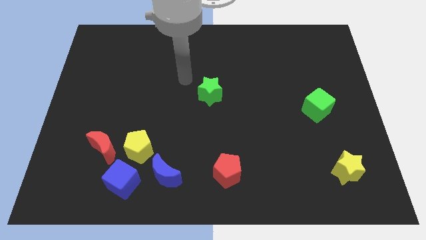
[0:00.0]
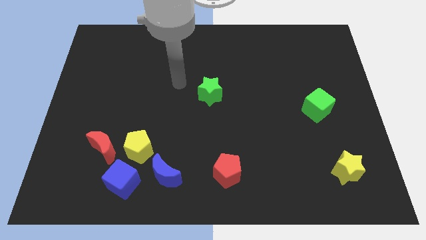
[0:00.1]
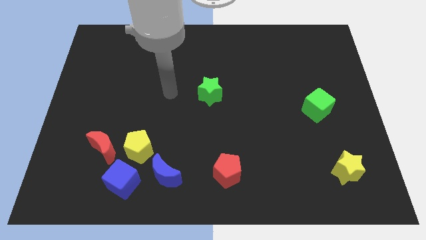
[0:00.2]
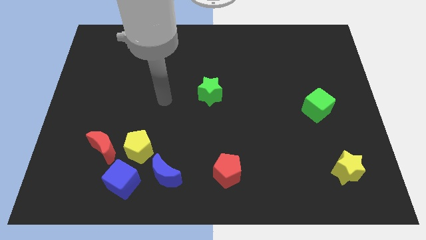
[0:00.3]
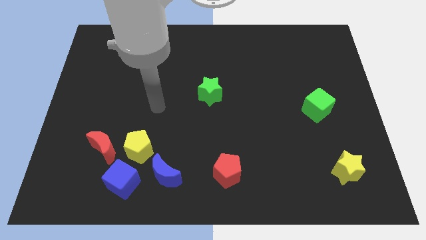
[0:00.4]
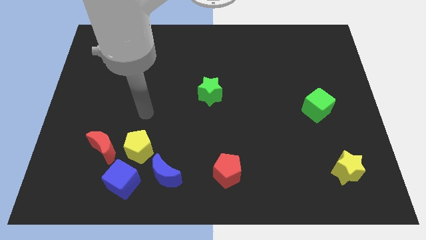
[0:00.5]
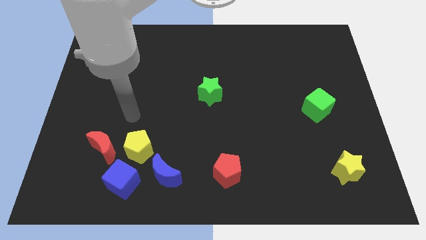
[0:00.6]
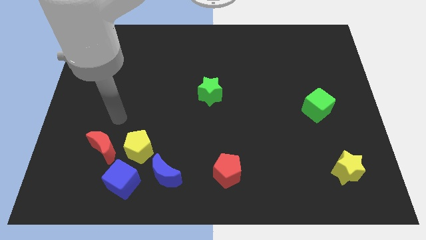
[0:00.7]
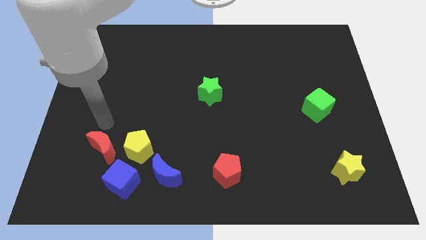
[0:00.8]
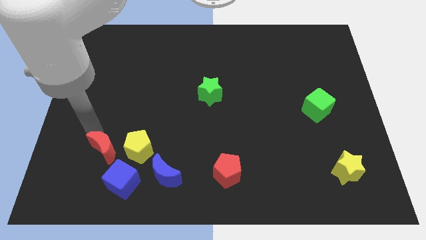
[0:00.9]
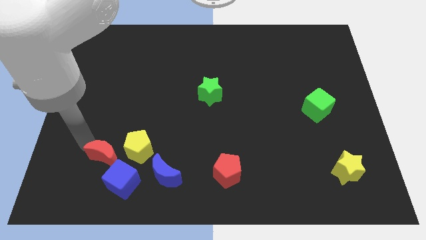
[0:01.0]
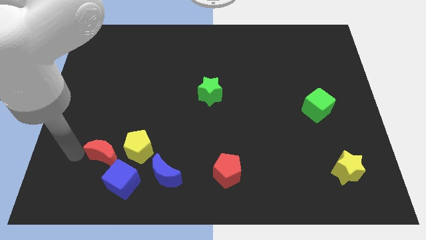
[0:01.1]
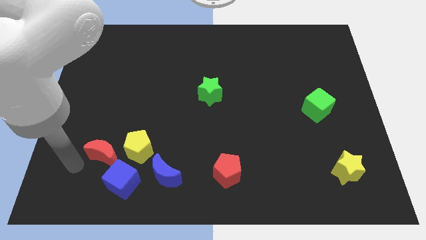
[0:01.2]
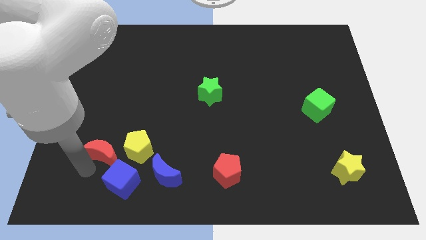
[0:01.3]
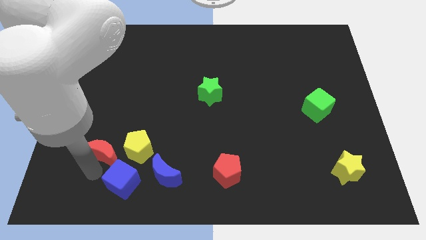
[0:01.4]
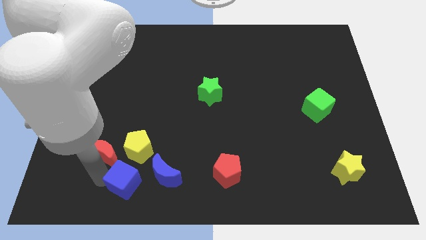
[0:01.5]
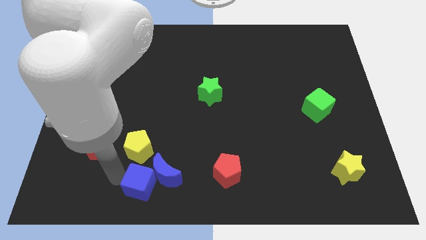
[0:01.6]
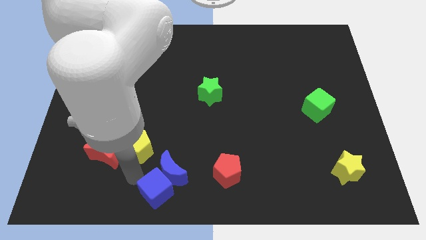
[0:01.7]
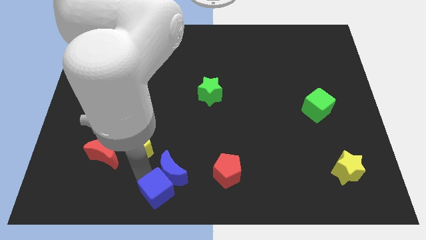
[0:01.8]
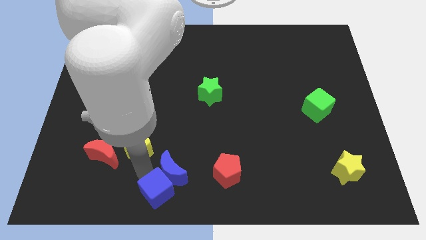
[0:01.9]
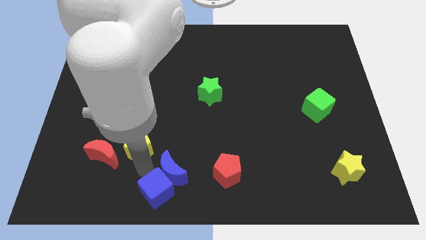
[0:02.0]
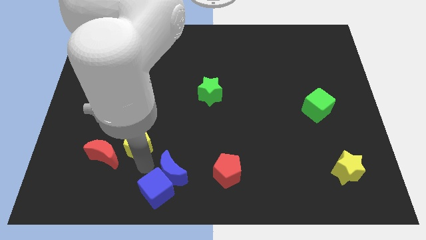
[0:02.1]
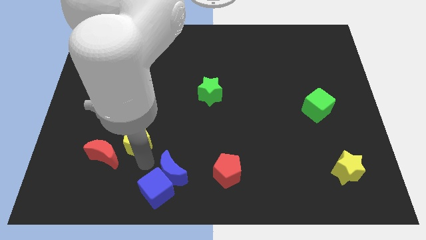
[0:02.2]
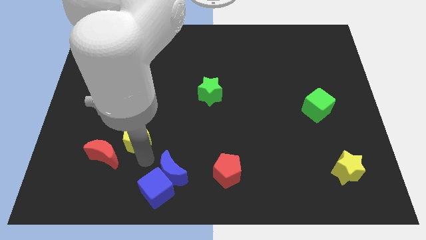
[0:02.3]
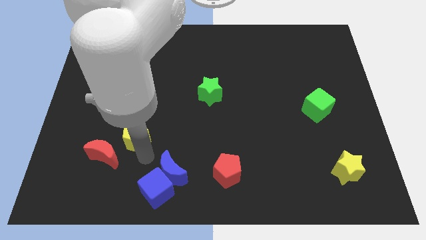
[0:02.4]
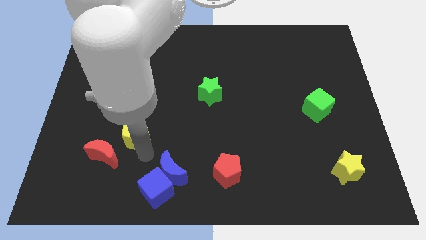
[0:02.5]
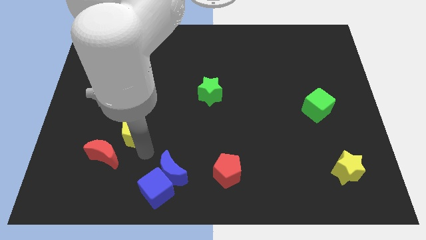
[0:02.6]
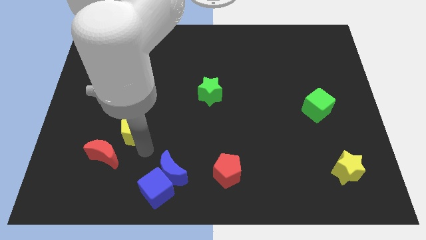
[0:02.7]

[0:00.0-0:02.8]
pull the yellow pentagon apart from the red moon, blue cube, and blue moon

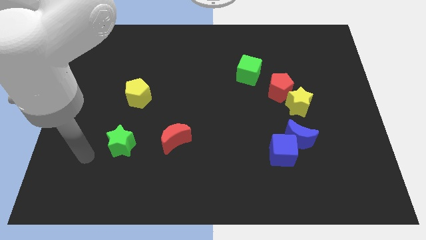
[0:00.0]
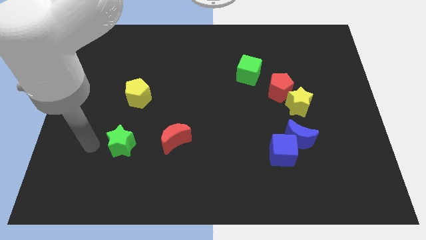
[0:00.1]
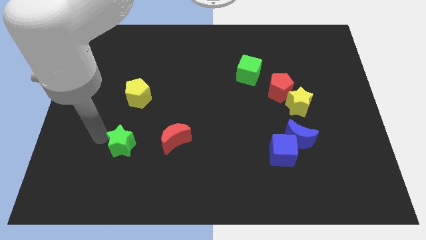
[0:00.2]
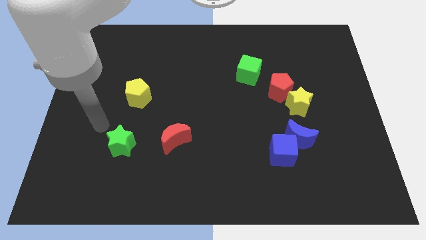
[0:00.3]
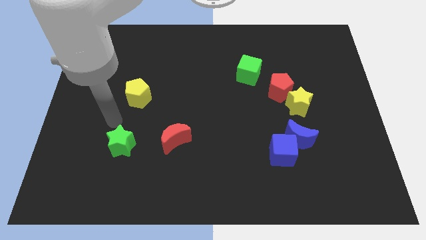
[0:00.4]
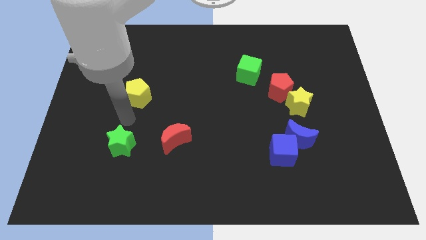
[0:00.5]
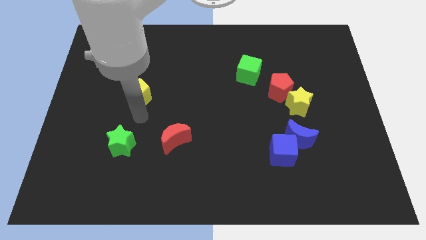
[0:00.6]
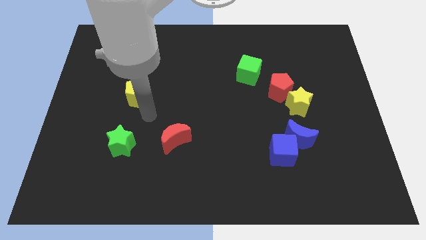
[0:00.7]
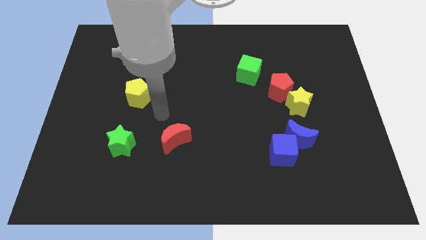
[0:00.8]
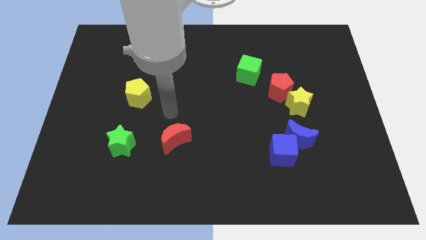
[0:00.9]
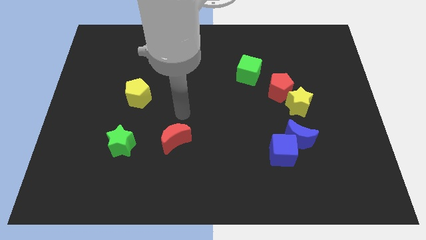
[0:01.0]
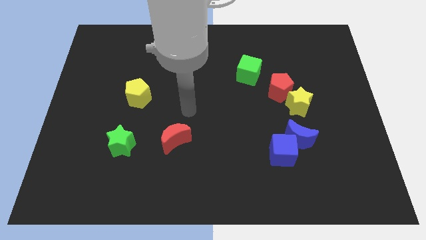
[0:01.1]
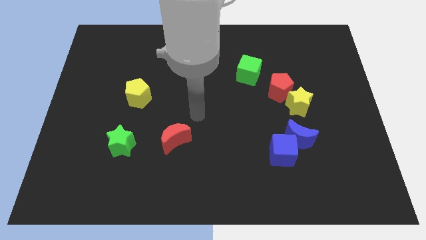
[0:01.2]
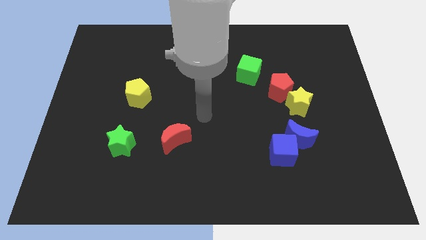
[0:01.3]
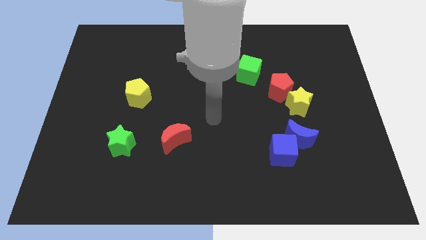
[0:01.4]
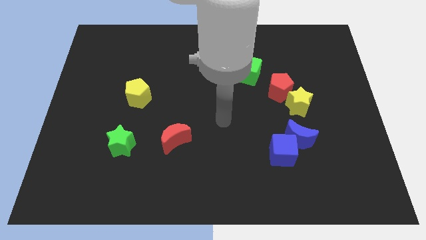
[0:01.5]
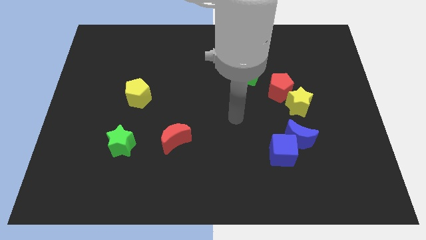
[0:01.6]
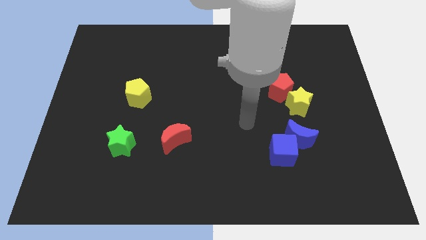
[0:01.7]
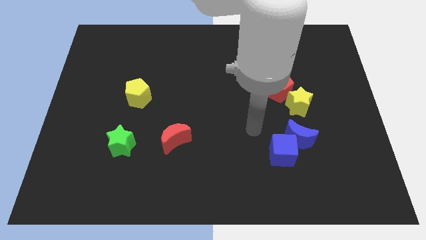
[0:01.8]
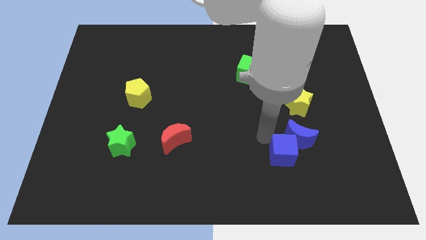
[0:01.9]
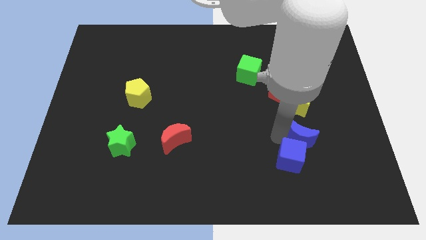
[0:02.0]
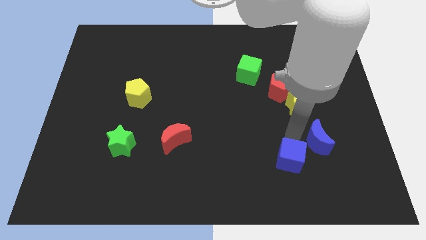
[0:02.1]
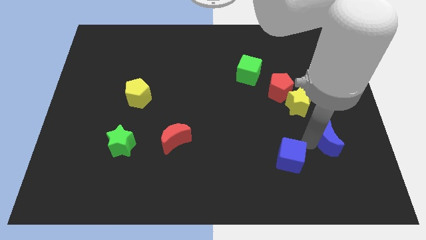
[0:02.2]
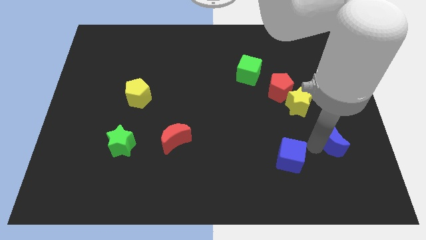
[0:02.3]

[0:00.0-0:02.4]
separate the blue cube from the blue moon

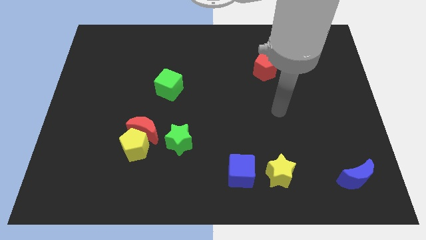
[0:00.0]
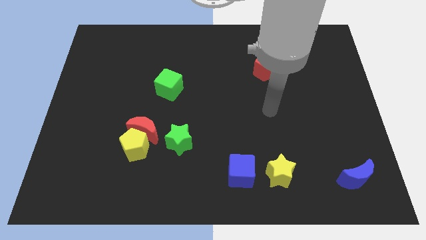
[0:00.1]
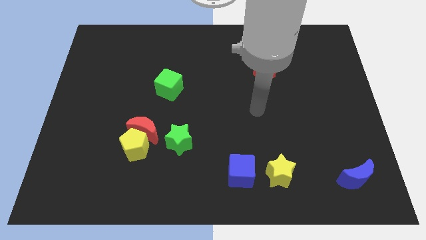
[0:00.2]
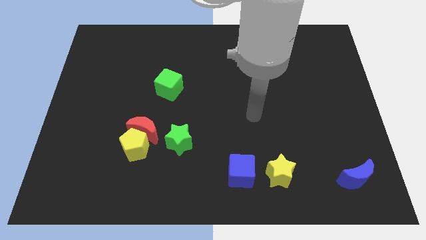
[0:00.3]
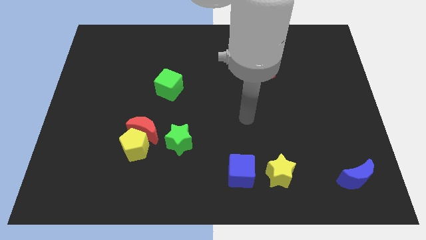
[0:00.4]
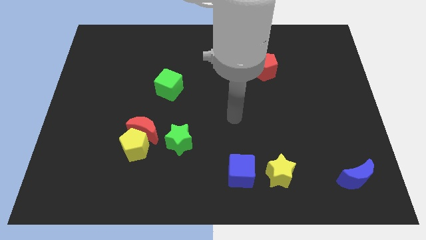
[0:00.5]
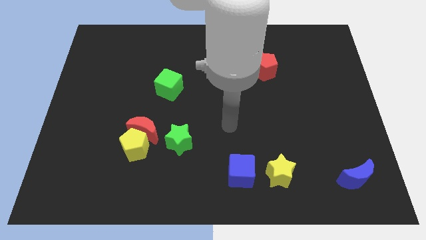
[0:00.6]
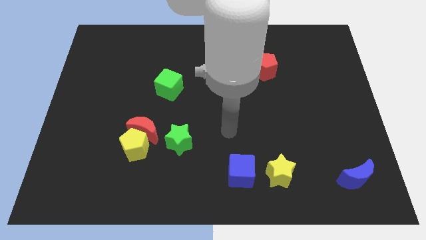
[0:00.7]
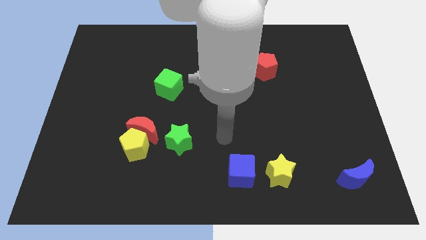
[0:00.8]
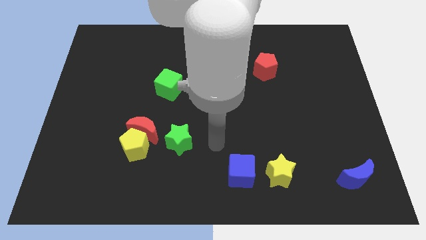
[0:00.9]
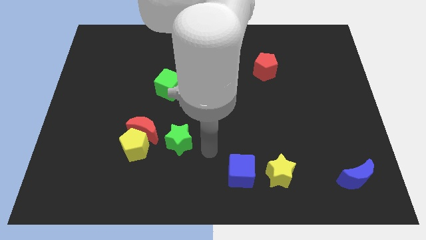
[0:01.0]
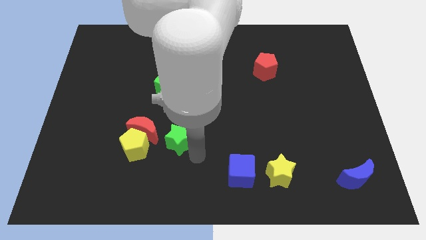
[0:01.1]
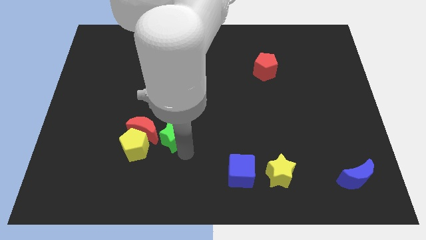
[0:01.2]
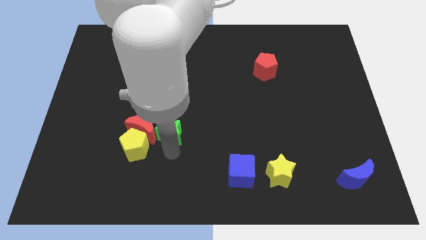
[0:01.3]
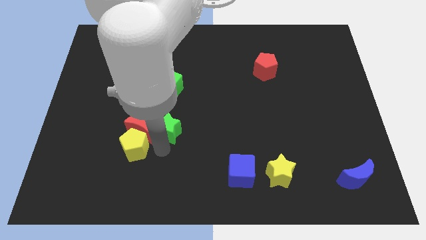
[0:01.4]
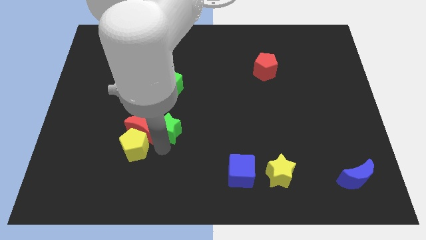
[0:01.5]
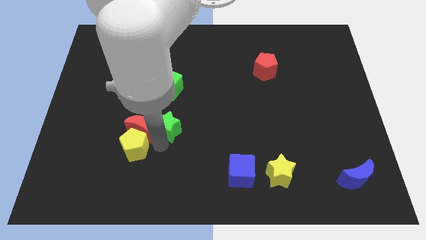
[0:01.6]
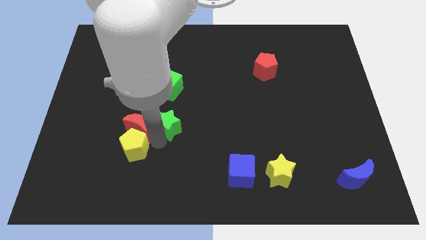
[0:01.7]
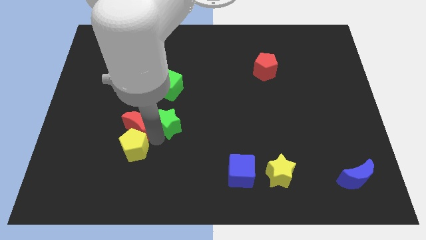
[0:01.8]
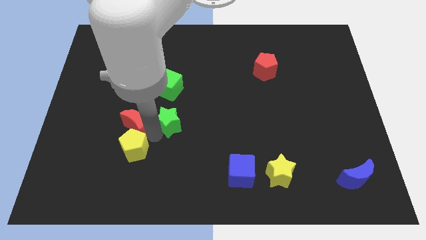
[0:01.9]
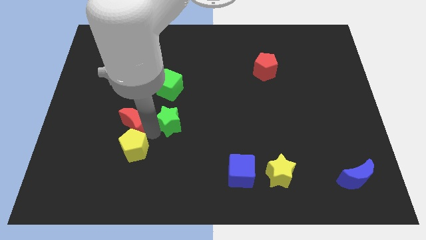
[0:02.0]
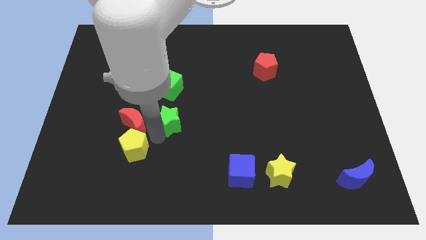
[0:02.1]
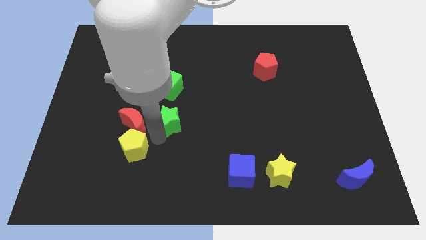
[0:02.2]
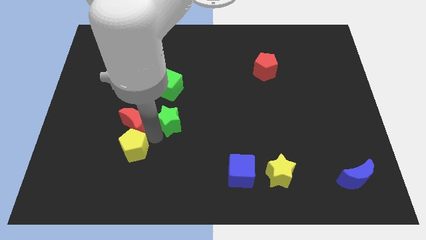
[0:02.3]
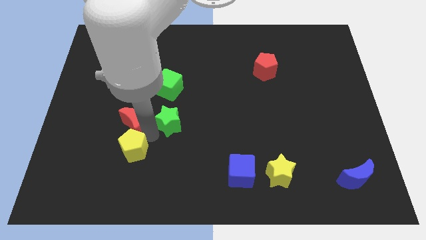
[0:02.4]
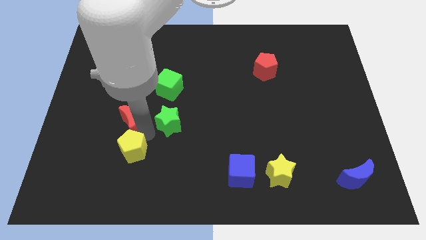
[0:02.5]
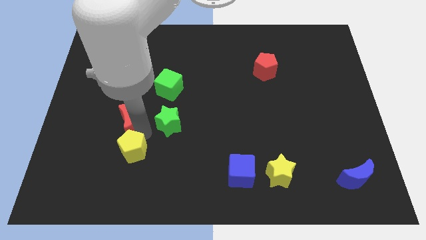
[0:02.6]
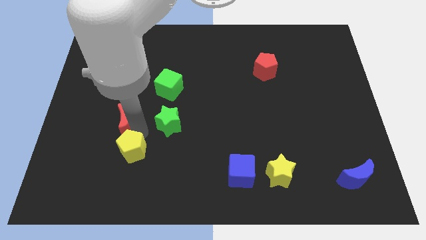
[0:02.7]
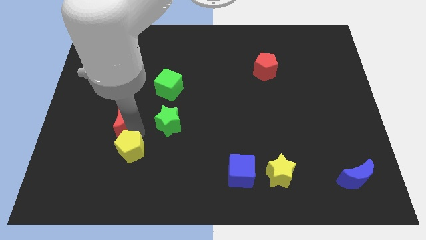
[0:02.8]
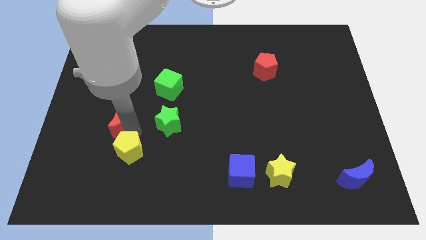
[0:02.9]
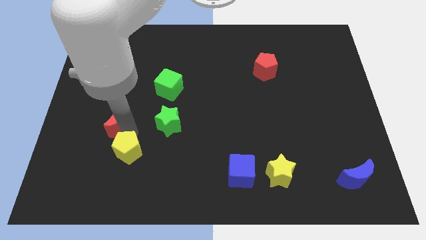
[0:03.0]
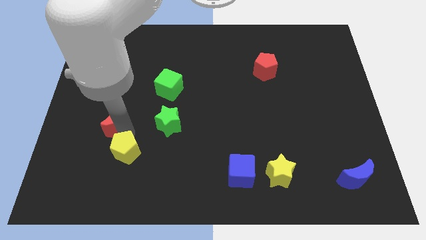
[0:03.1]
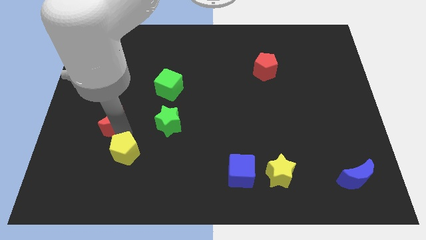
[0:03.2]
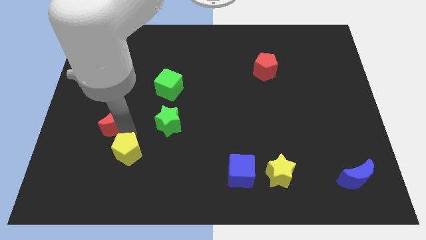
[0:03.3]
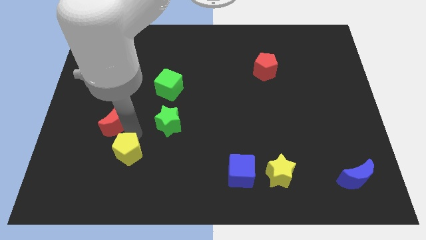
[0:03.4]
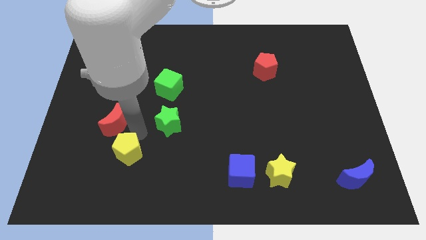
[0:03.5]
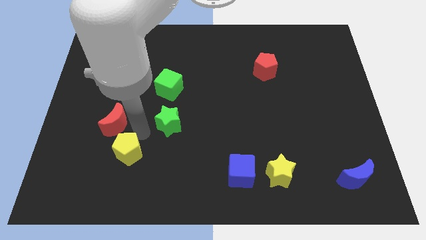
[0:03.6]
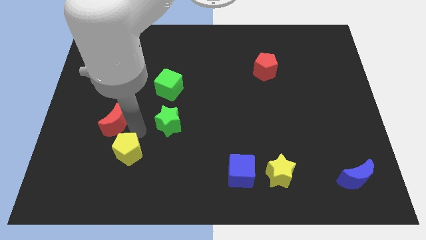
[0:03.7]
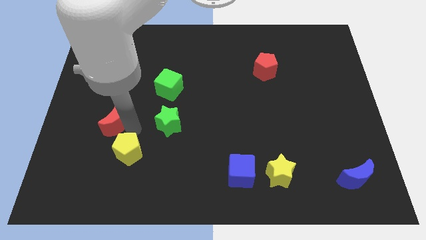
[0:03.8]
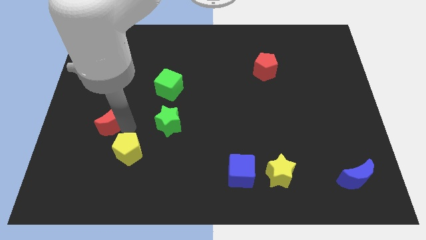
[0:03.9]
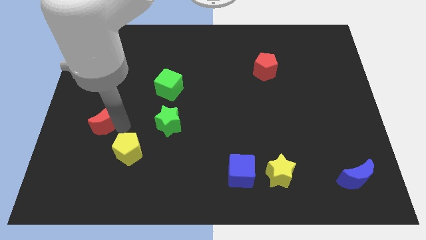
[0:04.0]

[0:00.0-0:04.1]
pull the red moon apart from the yellow pentagon and green star

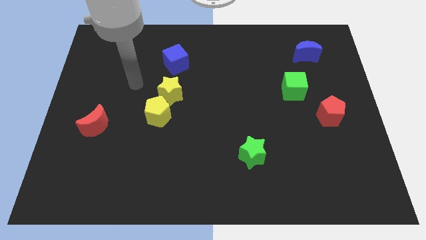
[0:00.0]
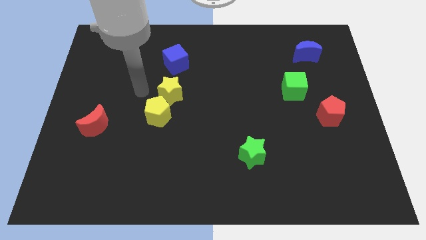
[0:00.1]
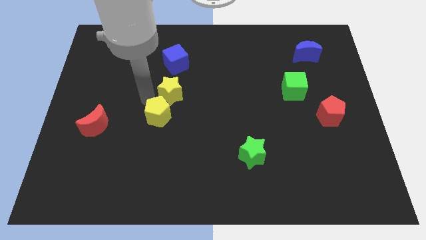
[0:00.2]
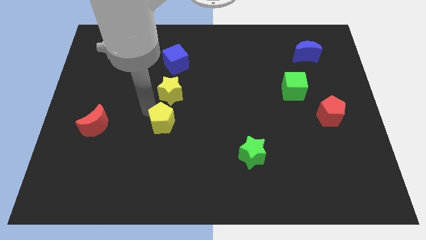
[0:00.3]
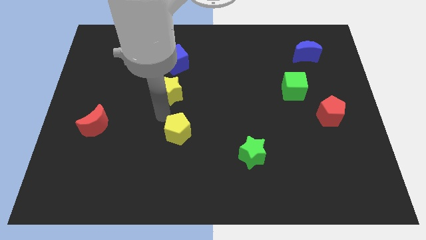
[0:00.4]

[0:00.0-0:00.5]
separate the yellow star from the yellow pentagon
